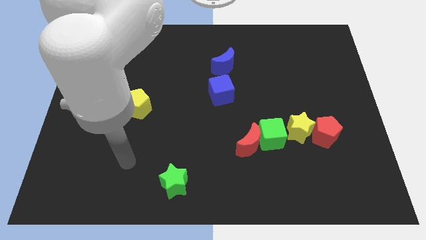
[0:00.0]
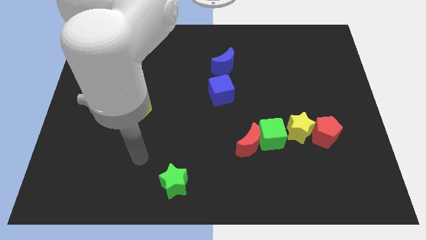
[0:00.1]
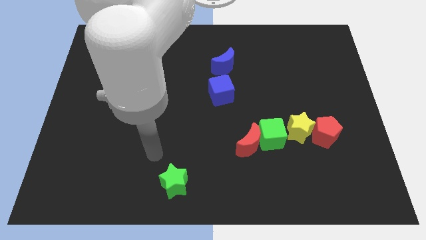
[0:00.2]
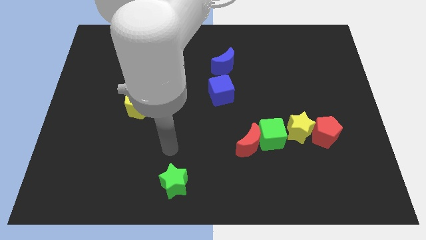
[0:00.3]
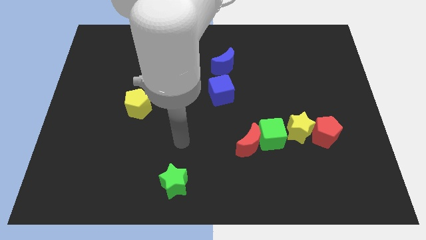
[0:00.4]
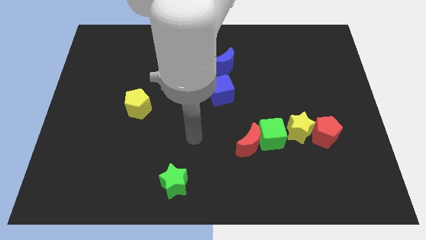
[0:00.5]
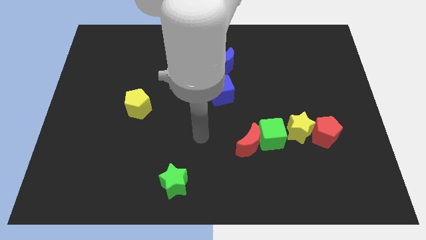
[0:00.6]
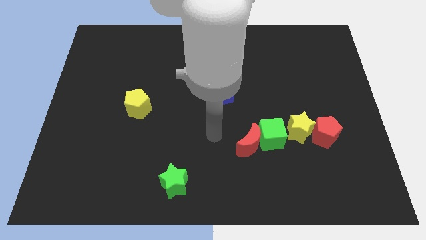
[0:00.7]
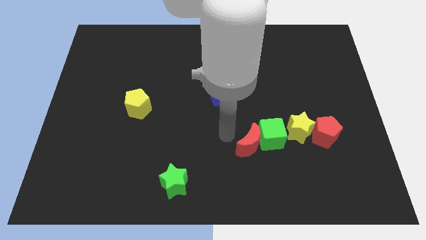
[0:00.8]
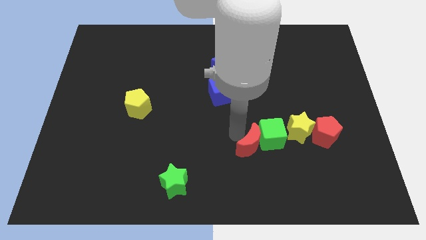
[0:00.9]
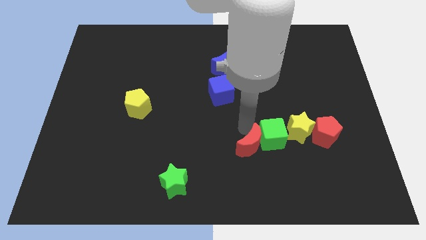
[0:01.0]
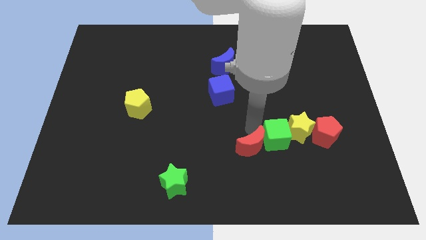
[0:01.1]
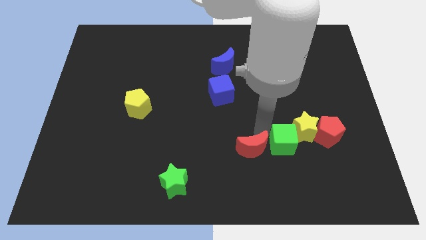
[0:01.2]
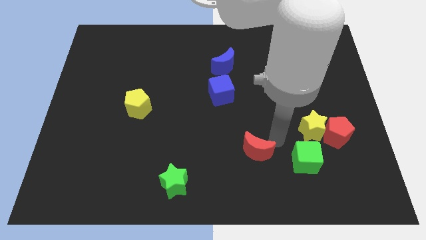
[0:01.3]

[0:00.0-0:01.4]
pull the red moon apart from the green cube

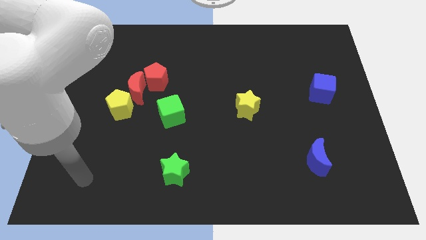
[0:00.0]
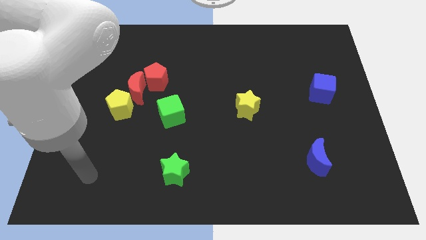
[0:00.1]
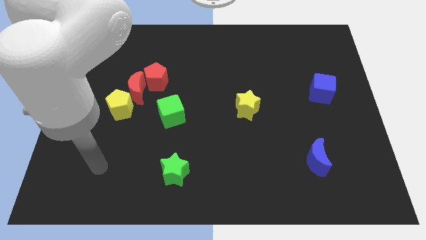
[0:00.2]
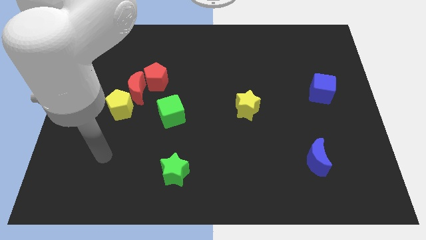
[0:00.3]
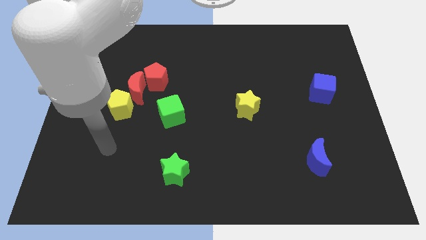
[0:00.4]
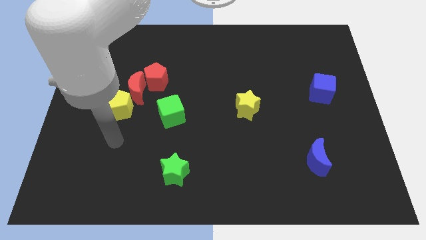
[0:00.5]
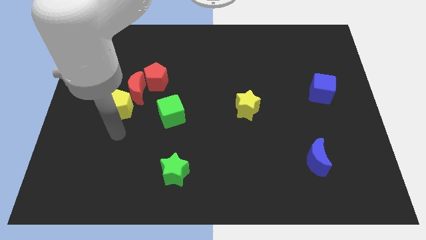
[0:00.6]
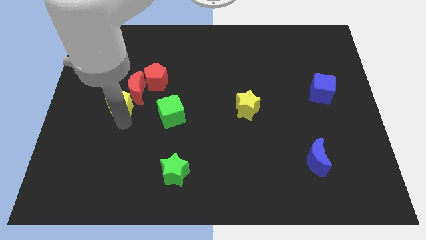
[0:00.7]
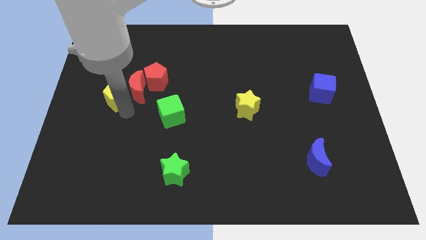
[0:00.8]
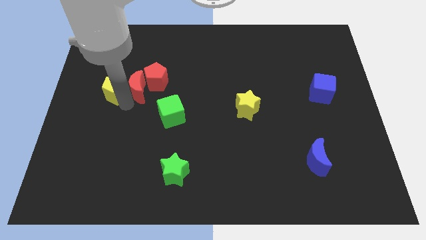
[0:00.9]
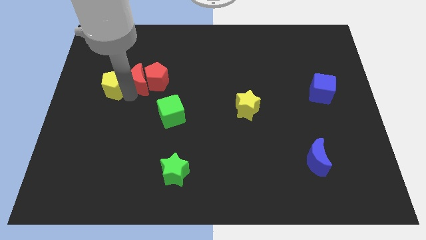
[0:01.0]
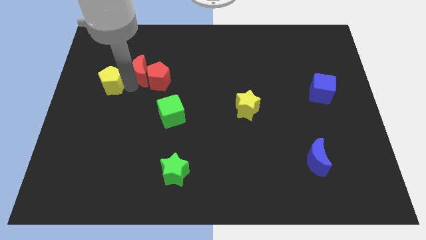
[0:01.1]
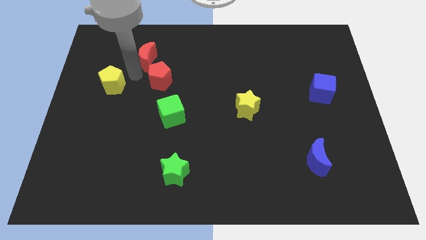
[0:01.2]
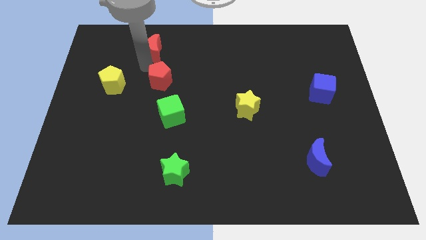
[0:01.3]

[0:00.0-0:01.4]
separate the red pentagon from the red moon

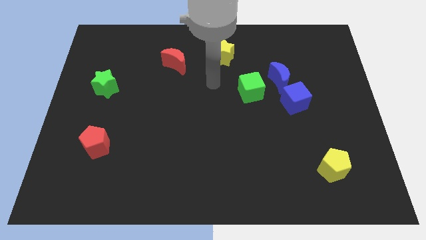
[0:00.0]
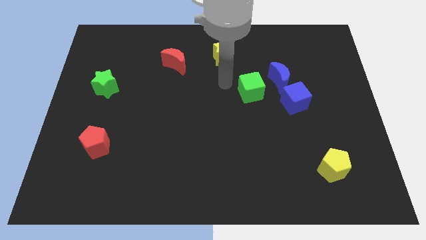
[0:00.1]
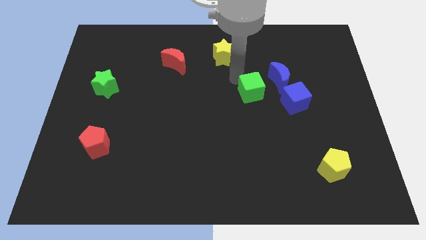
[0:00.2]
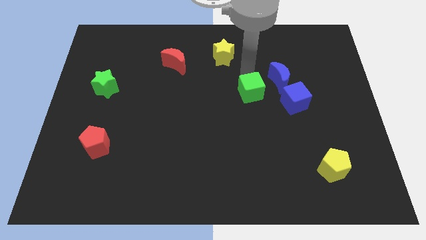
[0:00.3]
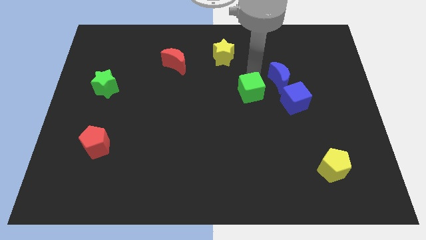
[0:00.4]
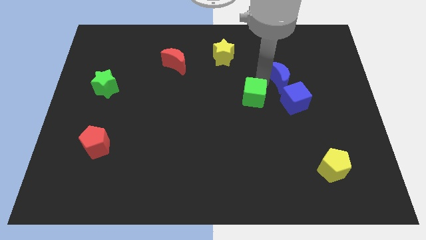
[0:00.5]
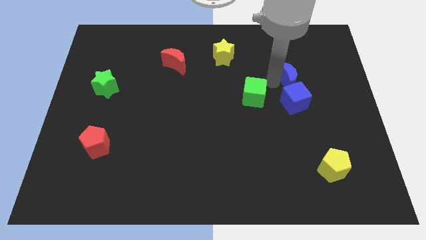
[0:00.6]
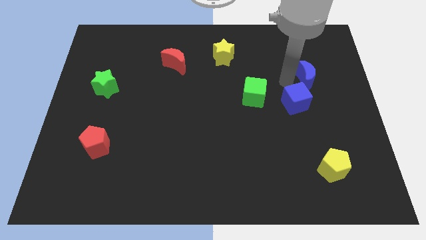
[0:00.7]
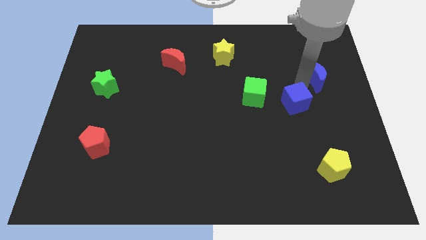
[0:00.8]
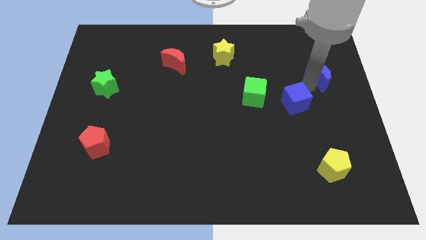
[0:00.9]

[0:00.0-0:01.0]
pull the blue cube apart from the blue moon

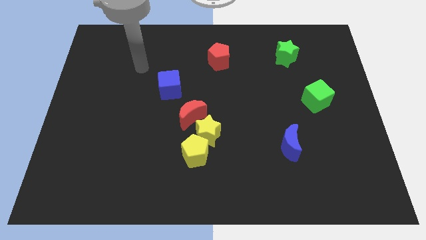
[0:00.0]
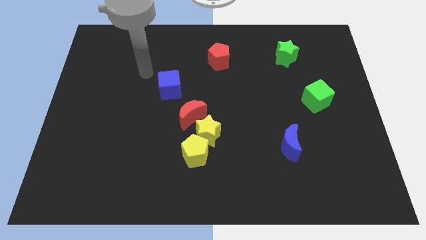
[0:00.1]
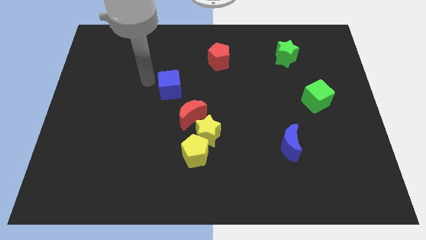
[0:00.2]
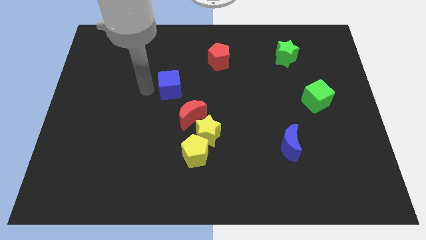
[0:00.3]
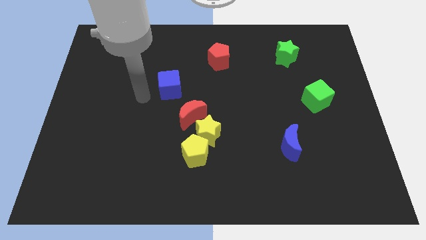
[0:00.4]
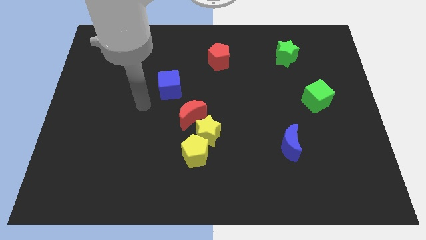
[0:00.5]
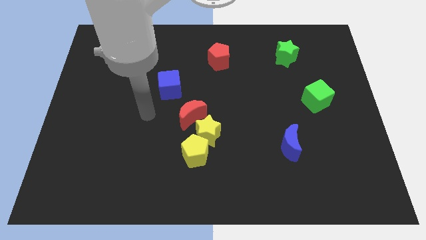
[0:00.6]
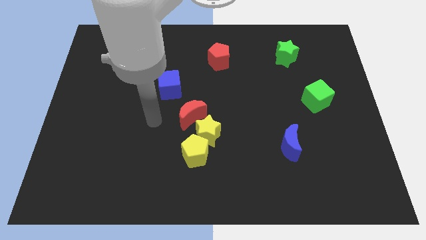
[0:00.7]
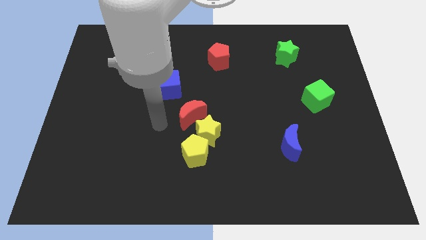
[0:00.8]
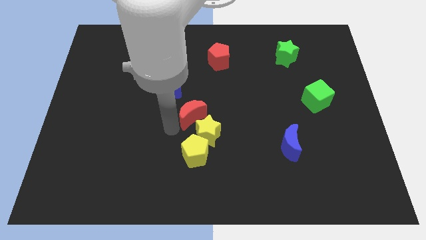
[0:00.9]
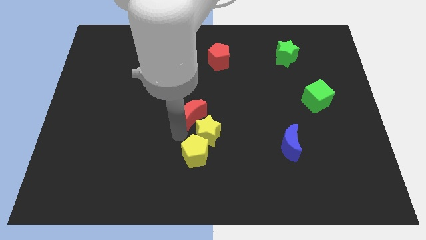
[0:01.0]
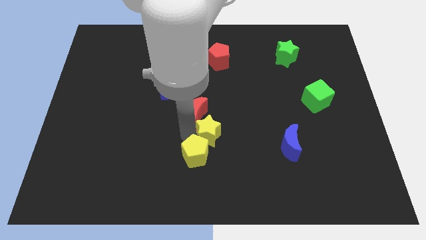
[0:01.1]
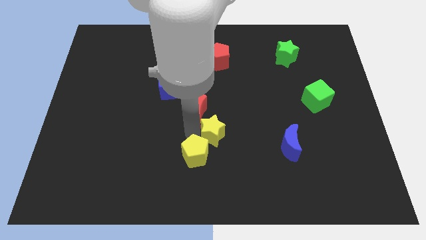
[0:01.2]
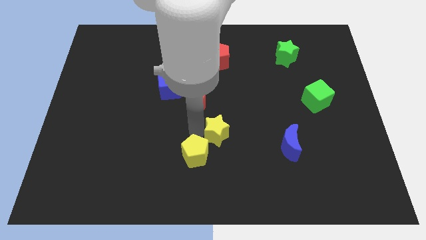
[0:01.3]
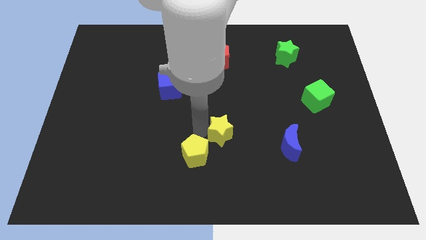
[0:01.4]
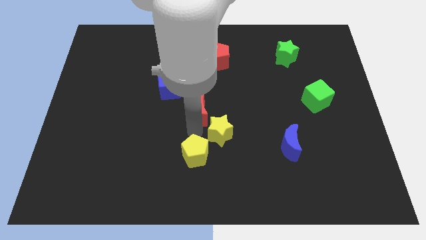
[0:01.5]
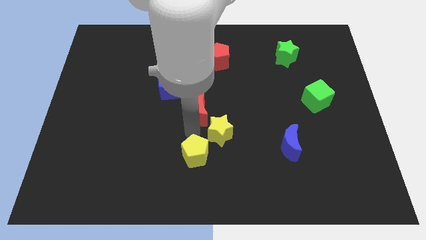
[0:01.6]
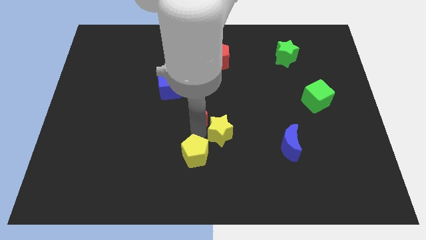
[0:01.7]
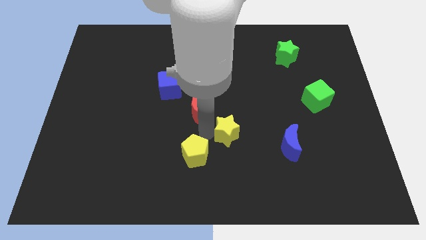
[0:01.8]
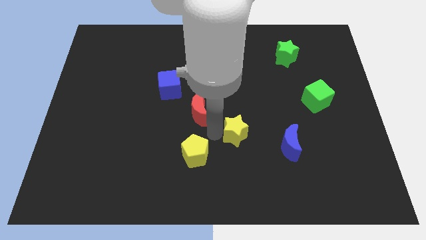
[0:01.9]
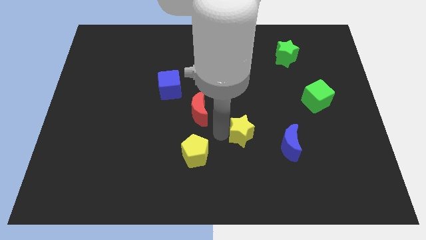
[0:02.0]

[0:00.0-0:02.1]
pull the yellow star apart from the yellow pentagon and red moon

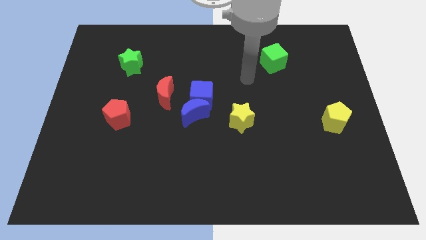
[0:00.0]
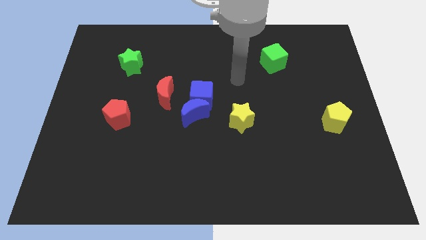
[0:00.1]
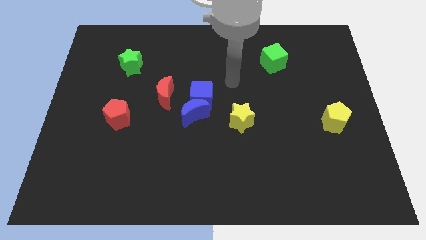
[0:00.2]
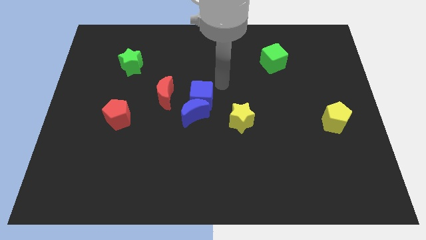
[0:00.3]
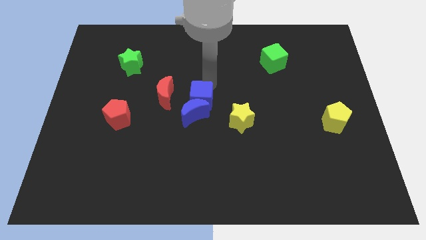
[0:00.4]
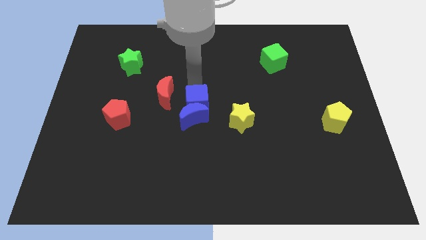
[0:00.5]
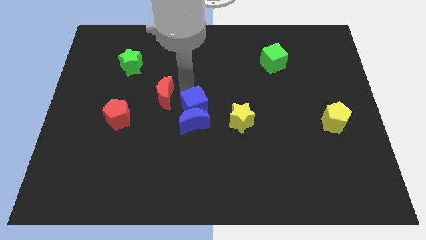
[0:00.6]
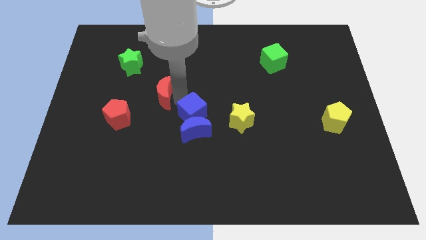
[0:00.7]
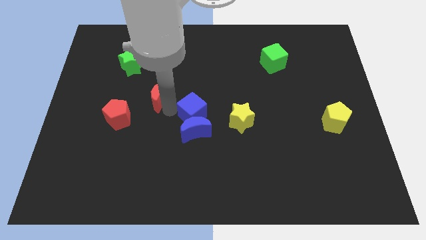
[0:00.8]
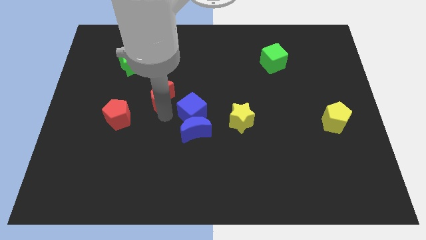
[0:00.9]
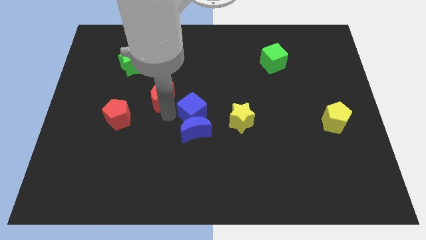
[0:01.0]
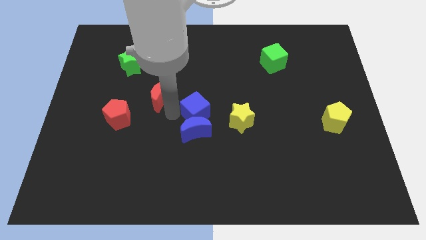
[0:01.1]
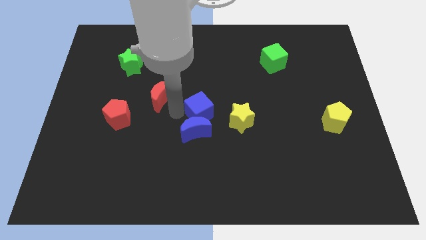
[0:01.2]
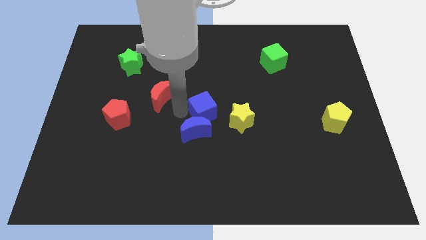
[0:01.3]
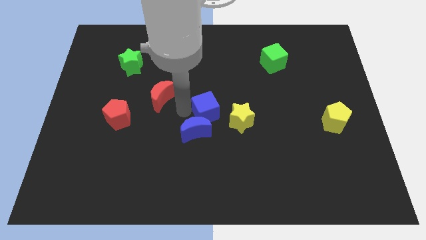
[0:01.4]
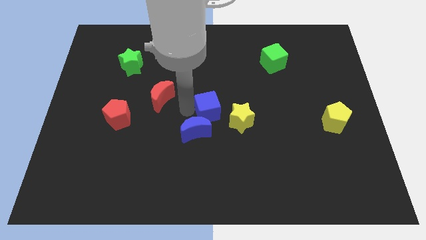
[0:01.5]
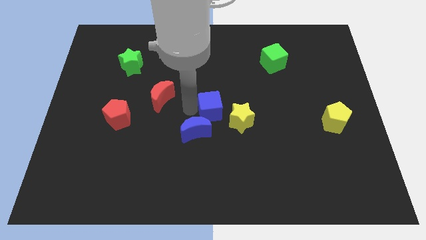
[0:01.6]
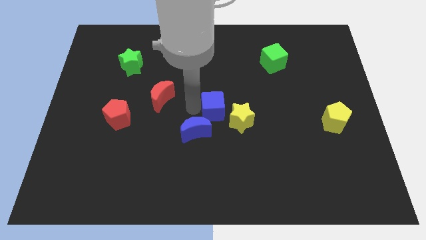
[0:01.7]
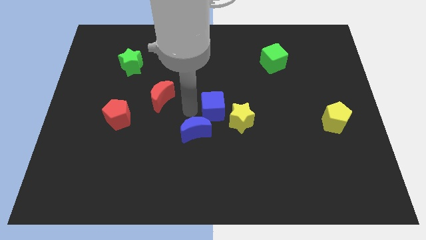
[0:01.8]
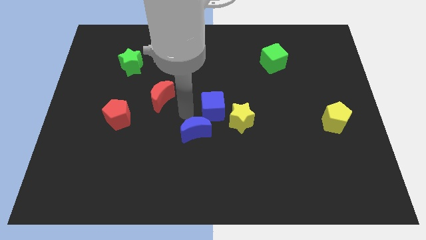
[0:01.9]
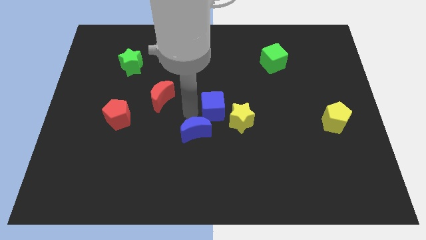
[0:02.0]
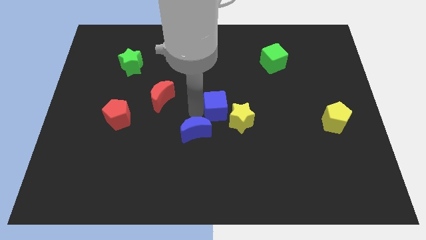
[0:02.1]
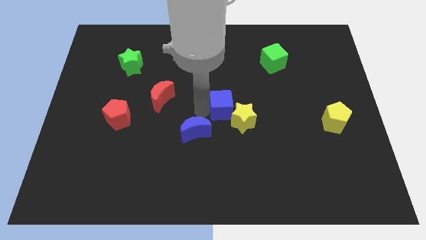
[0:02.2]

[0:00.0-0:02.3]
pull the blue cube apart from the blue moon and red moon

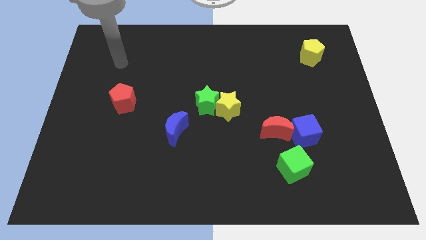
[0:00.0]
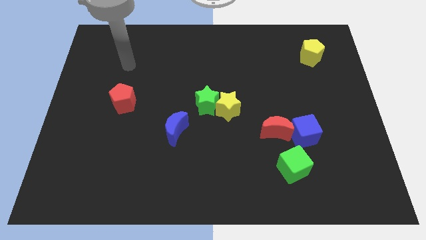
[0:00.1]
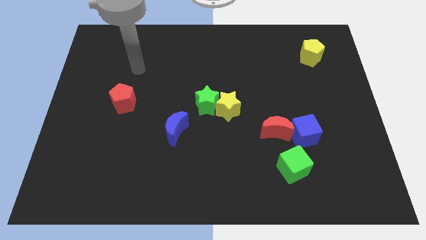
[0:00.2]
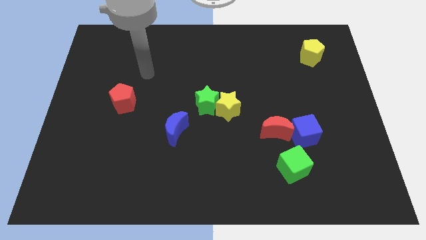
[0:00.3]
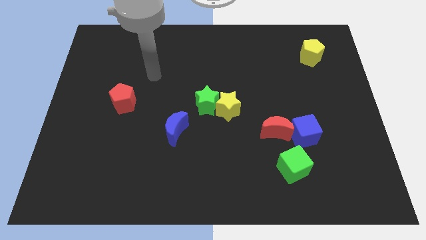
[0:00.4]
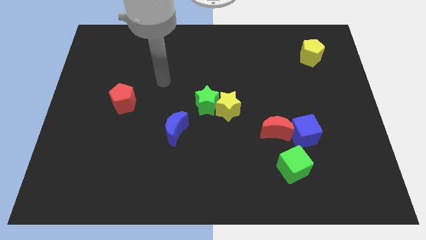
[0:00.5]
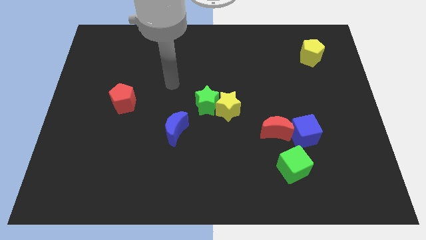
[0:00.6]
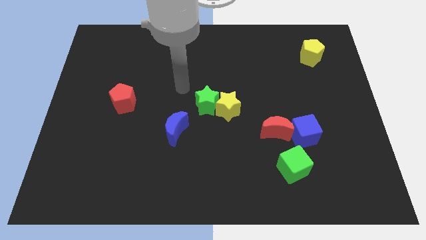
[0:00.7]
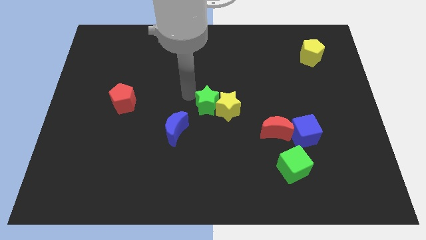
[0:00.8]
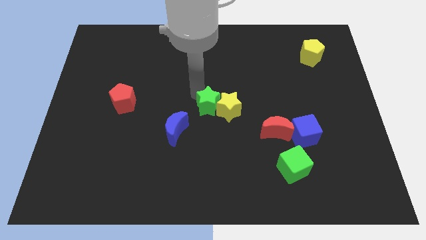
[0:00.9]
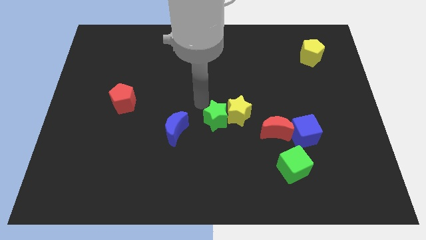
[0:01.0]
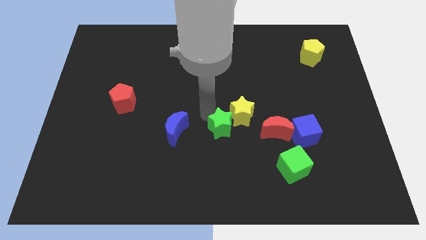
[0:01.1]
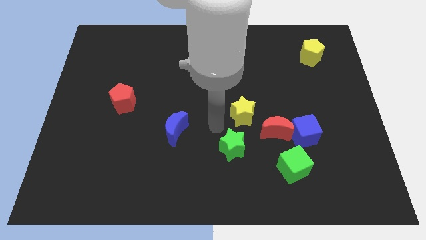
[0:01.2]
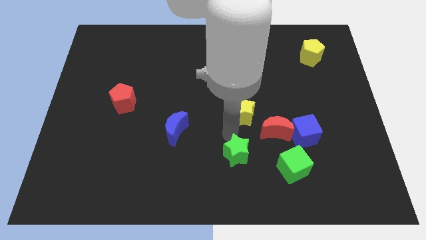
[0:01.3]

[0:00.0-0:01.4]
pull the yellow star apart from the green star
